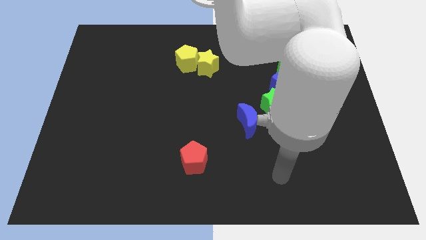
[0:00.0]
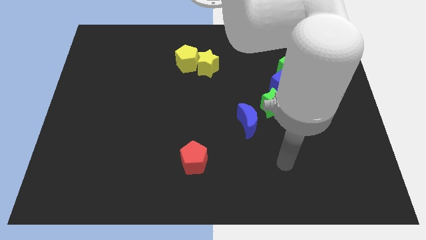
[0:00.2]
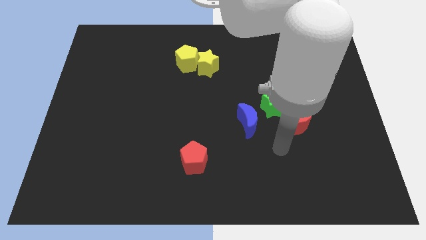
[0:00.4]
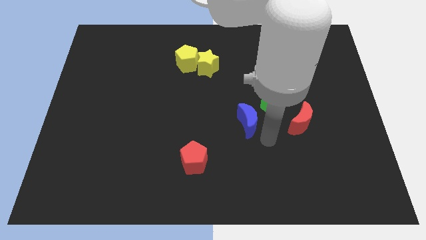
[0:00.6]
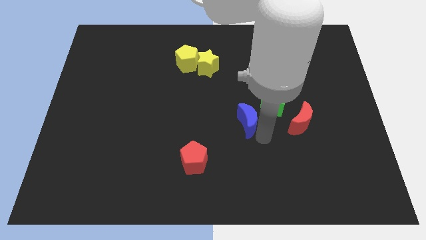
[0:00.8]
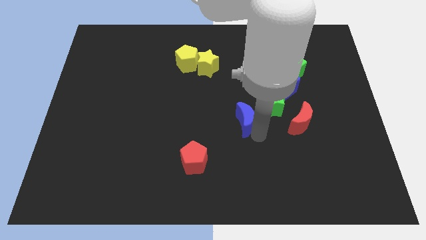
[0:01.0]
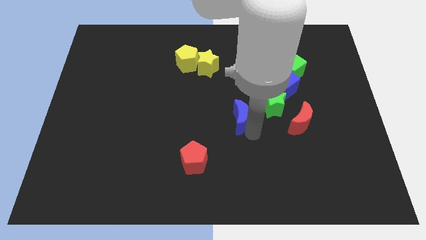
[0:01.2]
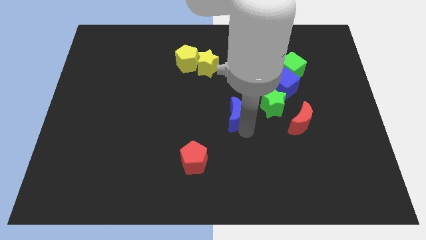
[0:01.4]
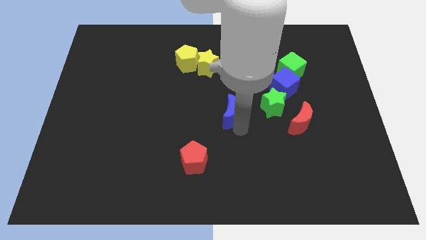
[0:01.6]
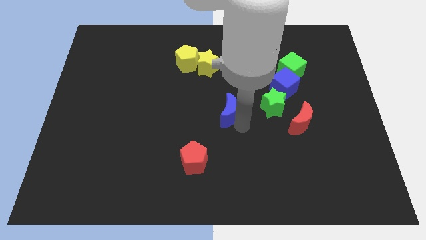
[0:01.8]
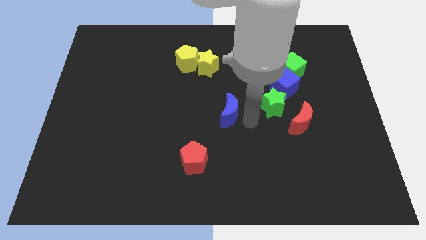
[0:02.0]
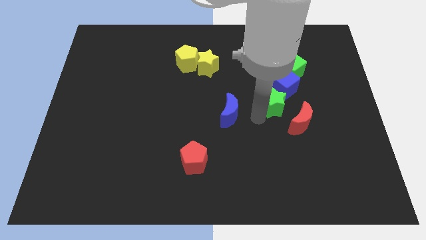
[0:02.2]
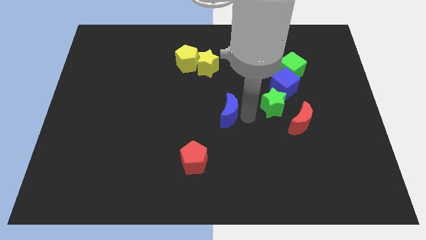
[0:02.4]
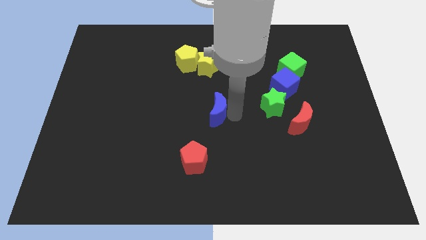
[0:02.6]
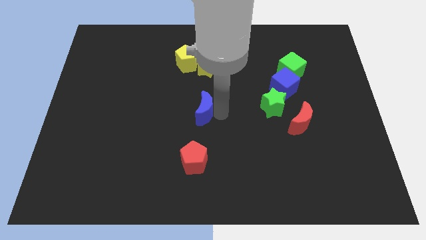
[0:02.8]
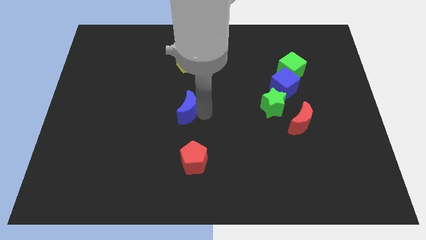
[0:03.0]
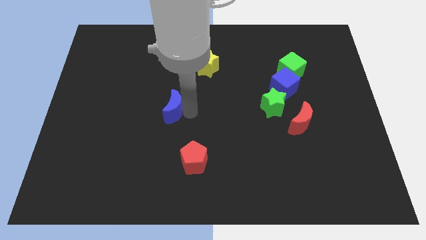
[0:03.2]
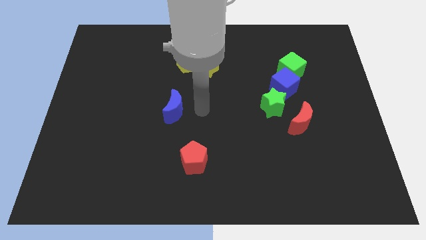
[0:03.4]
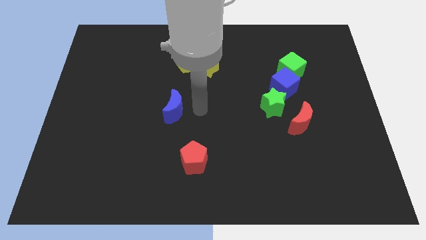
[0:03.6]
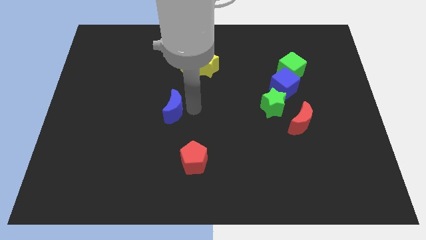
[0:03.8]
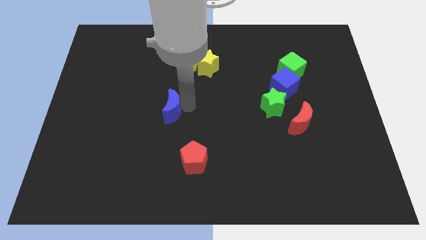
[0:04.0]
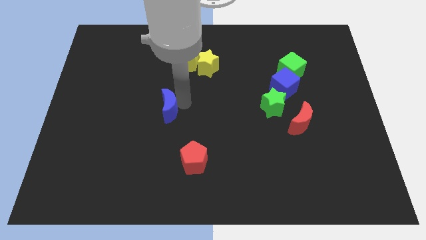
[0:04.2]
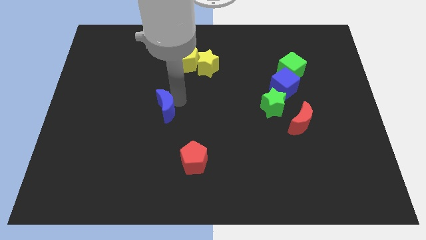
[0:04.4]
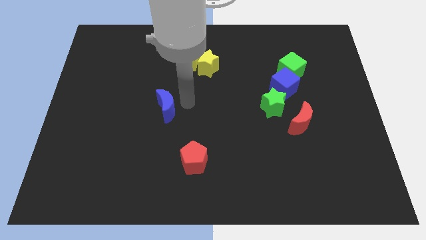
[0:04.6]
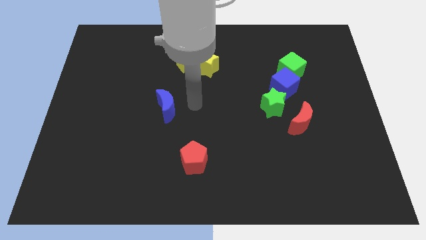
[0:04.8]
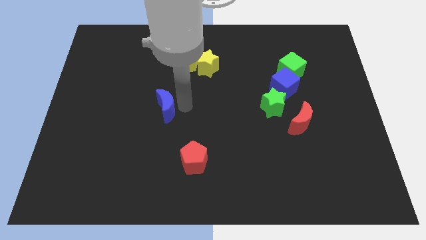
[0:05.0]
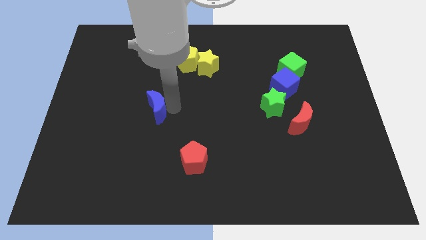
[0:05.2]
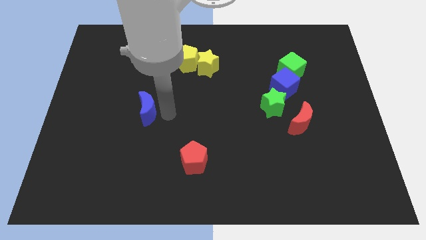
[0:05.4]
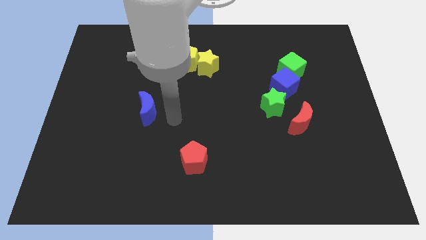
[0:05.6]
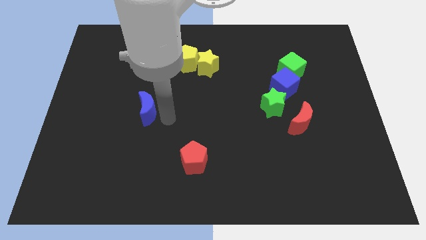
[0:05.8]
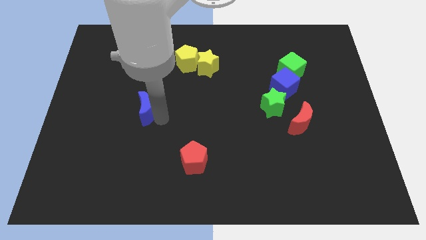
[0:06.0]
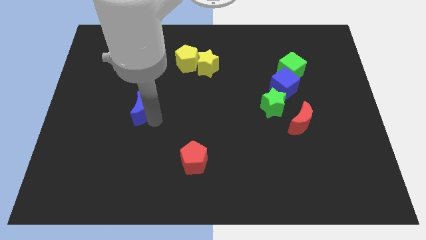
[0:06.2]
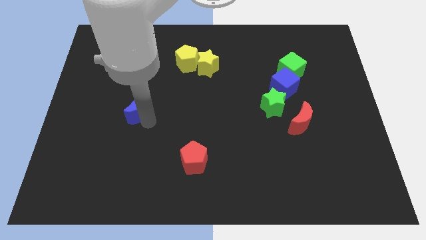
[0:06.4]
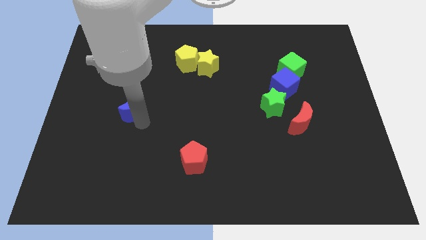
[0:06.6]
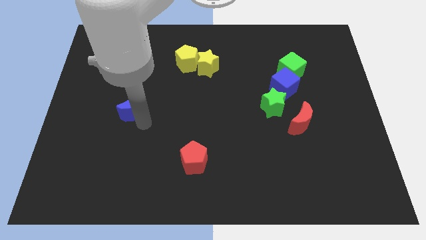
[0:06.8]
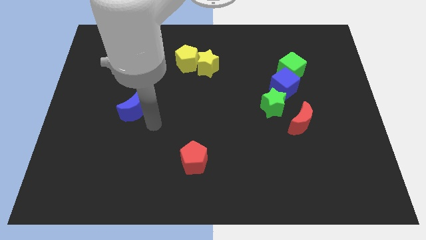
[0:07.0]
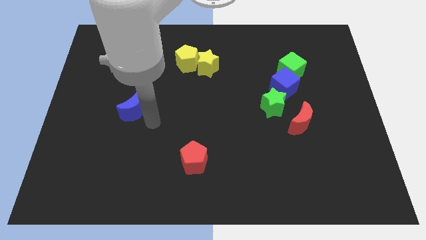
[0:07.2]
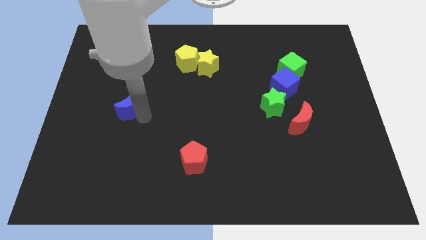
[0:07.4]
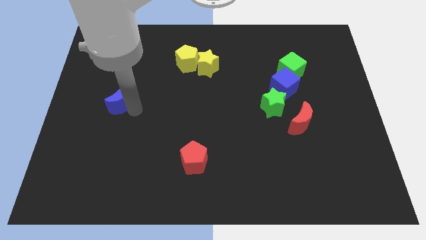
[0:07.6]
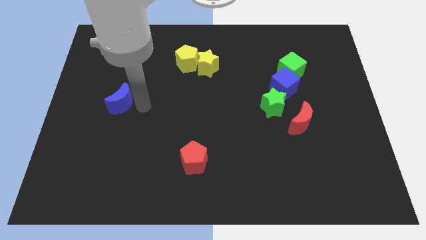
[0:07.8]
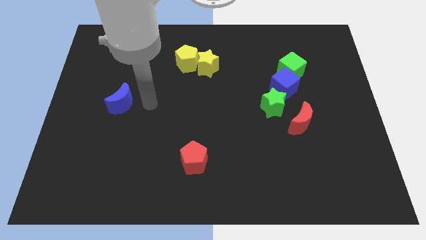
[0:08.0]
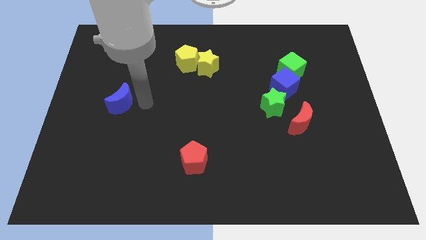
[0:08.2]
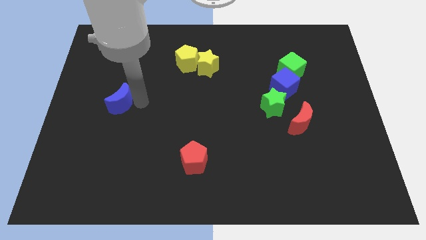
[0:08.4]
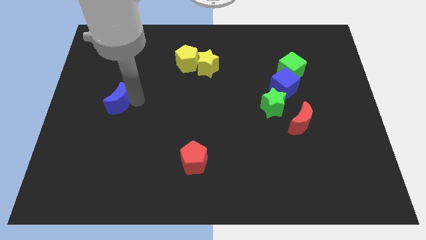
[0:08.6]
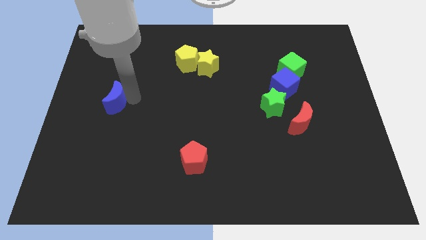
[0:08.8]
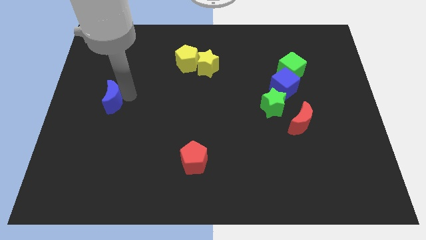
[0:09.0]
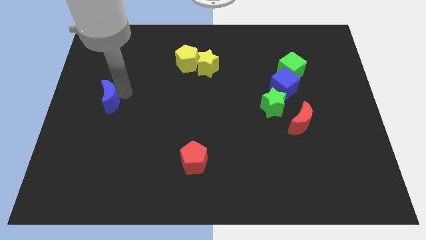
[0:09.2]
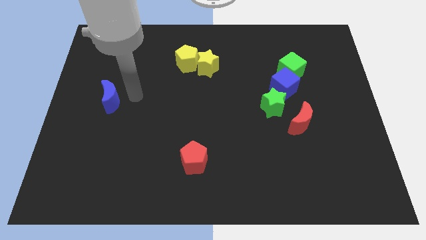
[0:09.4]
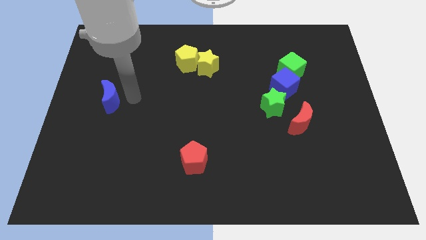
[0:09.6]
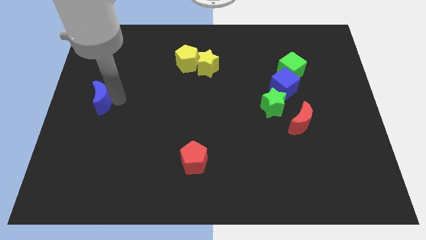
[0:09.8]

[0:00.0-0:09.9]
put the blue moon to the left side of the board

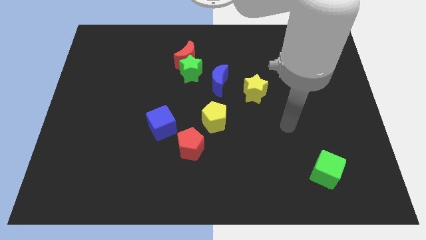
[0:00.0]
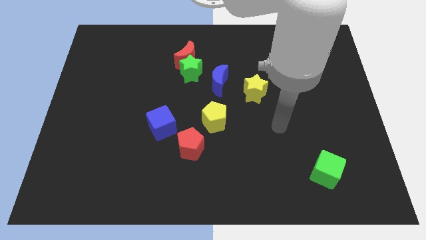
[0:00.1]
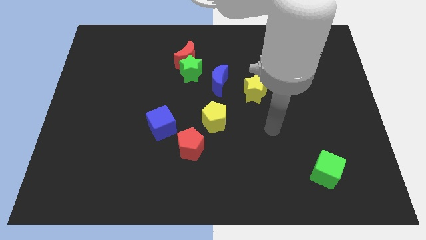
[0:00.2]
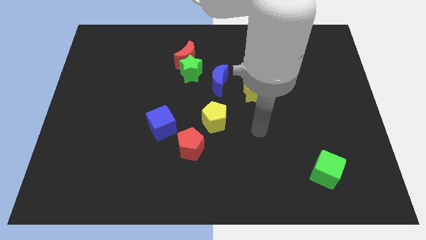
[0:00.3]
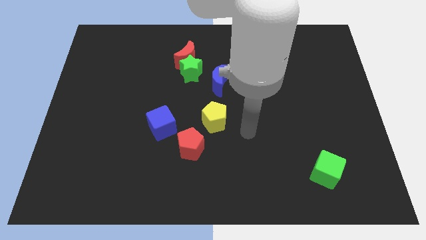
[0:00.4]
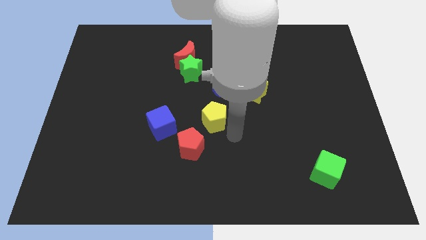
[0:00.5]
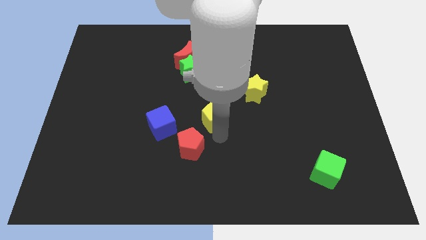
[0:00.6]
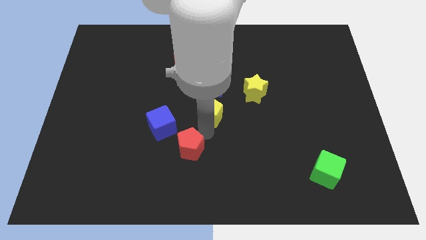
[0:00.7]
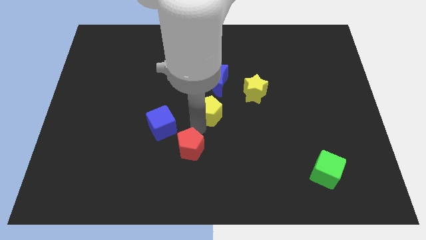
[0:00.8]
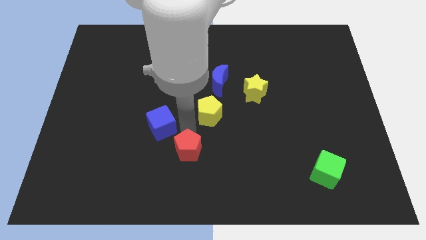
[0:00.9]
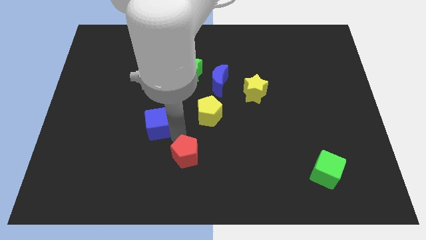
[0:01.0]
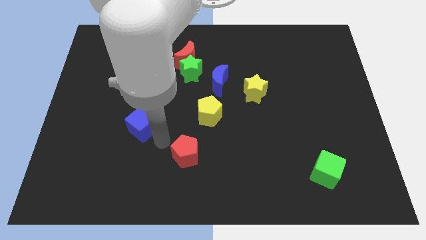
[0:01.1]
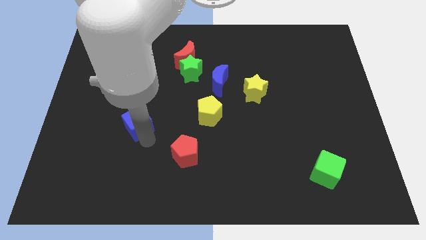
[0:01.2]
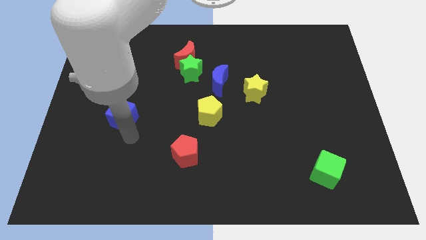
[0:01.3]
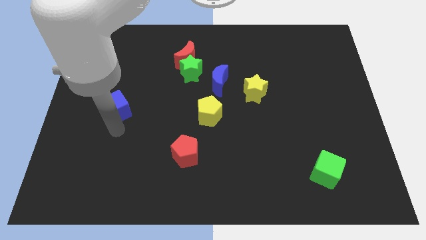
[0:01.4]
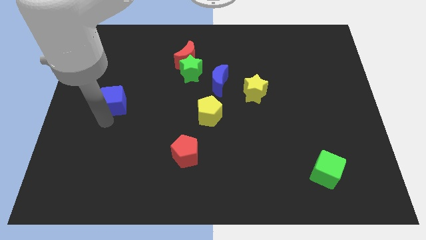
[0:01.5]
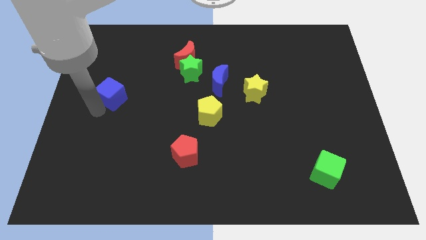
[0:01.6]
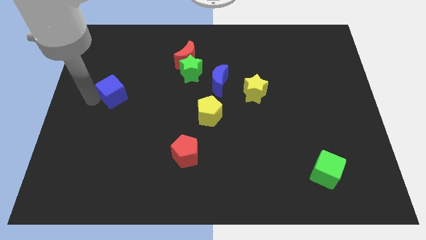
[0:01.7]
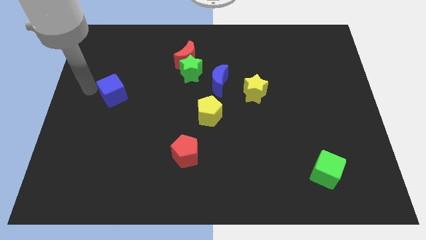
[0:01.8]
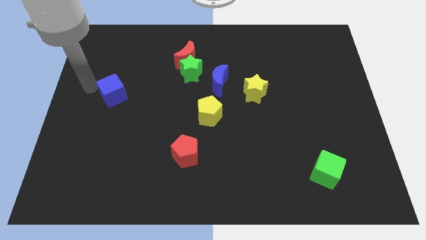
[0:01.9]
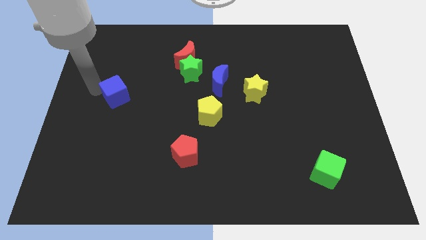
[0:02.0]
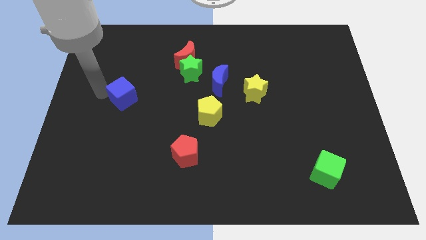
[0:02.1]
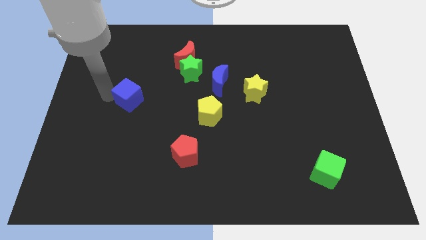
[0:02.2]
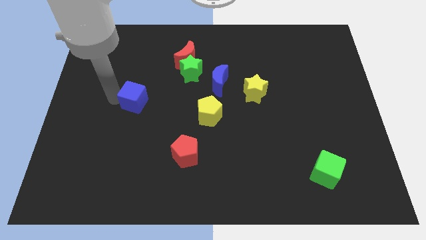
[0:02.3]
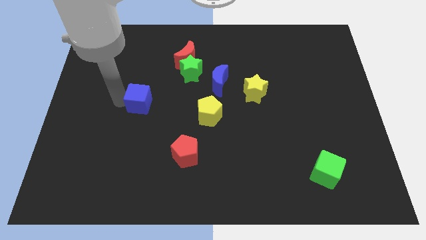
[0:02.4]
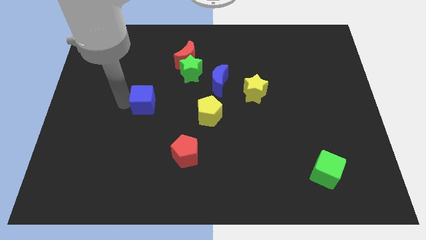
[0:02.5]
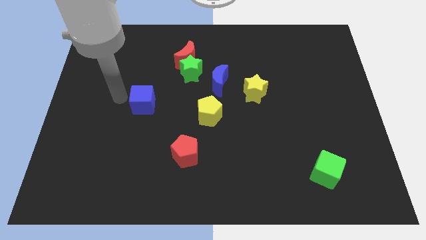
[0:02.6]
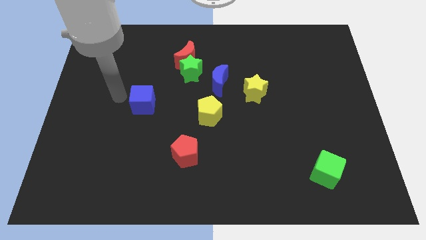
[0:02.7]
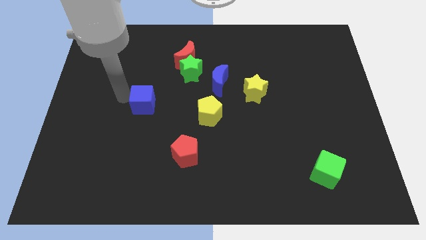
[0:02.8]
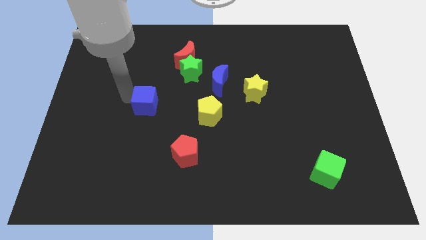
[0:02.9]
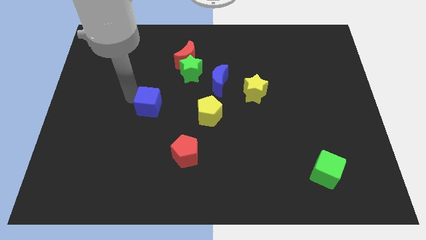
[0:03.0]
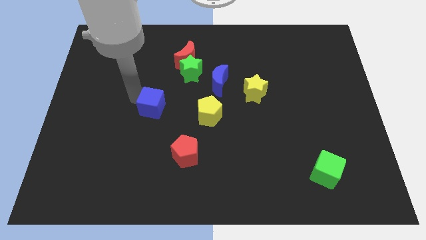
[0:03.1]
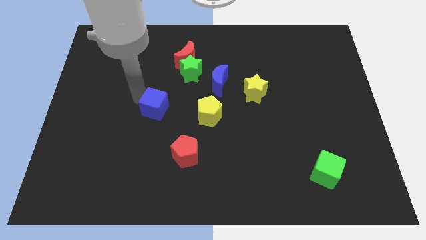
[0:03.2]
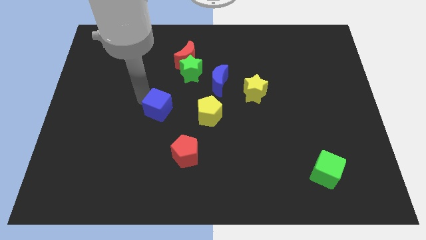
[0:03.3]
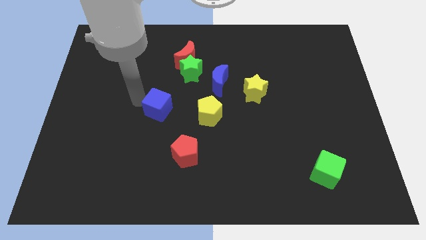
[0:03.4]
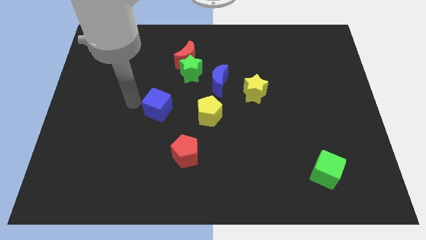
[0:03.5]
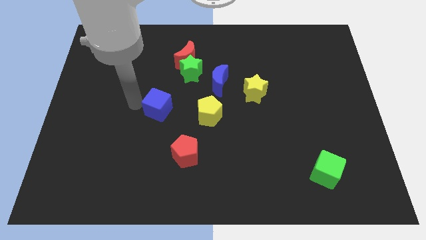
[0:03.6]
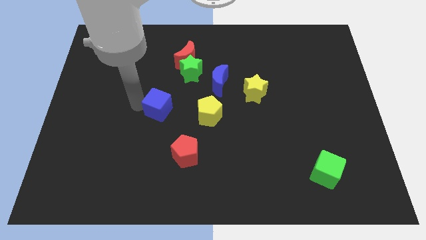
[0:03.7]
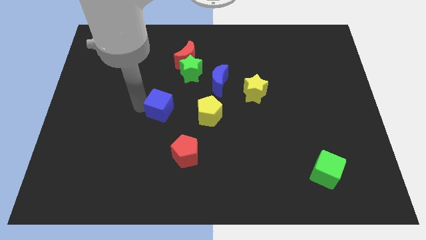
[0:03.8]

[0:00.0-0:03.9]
slide the blue cube to the center
